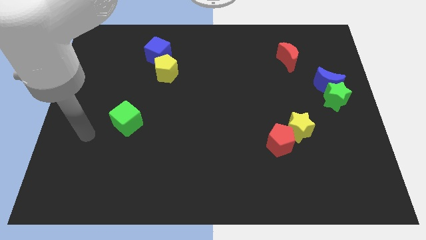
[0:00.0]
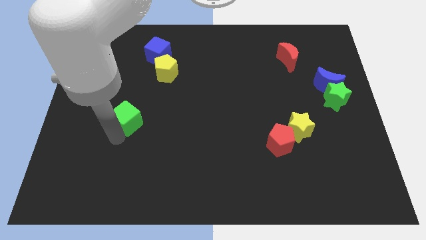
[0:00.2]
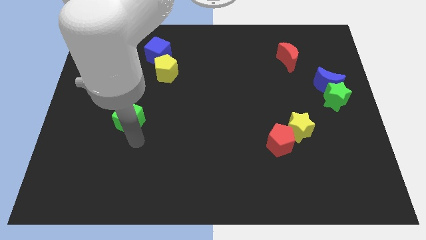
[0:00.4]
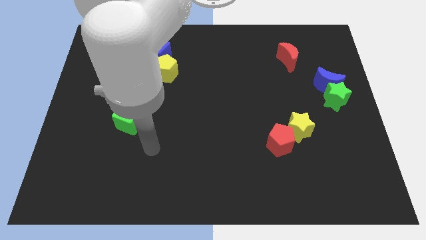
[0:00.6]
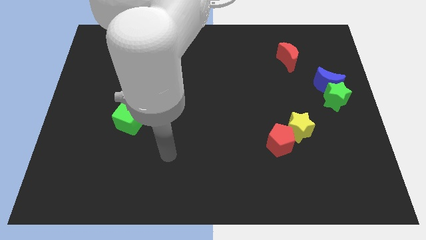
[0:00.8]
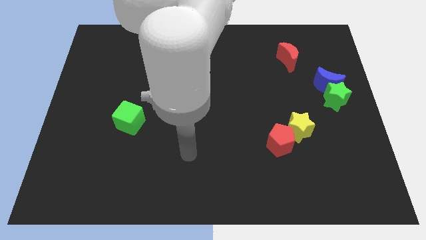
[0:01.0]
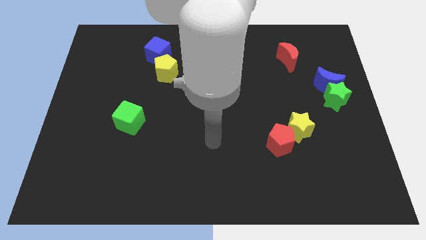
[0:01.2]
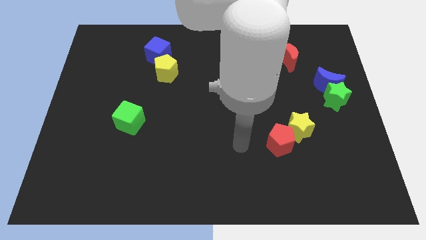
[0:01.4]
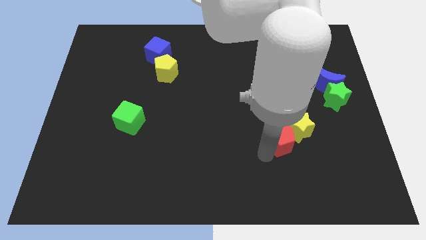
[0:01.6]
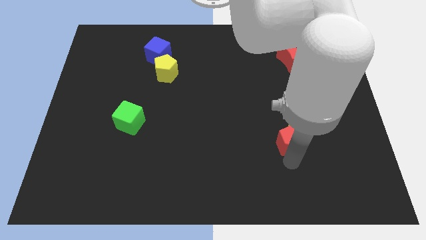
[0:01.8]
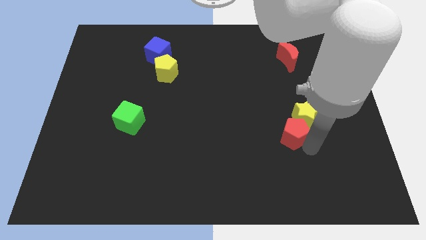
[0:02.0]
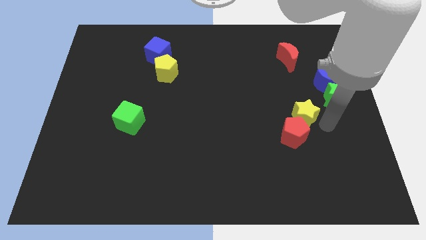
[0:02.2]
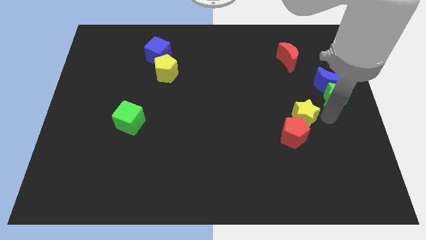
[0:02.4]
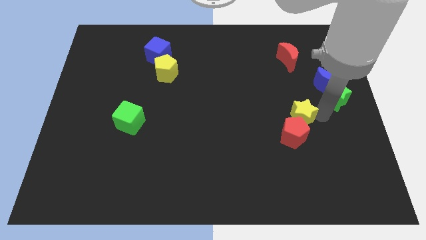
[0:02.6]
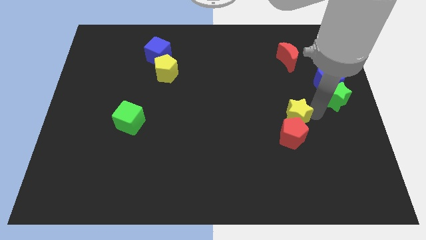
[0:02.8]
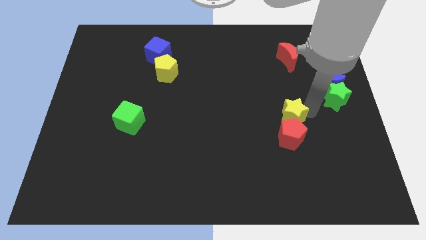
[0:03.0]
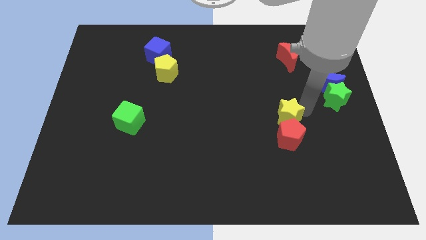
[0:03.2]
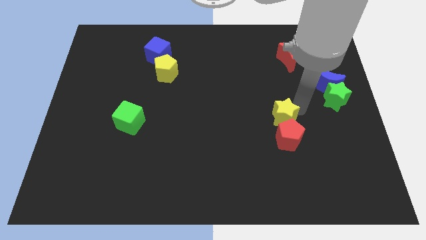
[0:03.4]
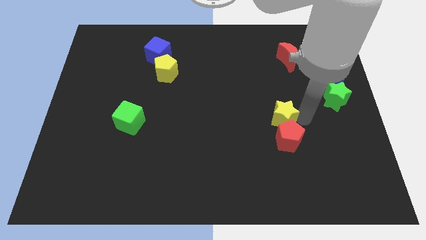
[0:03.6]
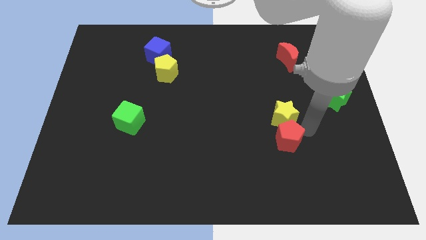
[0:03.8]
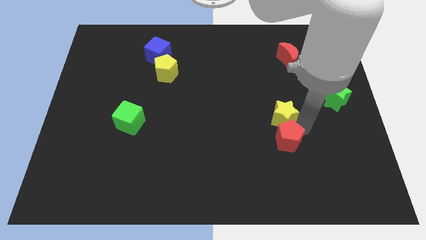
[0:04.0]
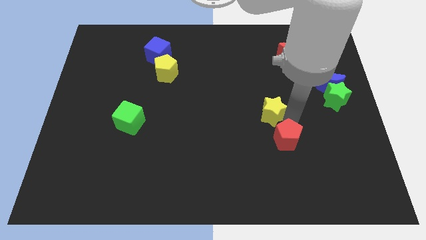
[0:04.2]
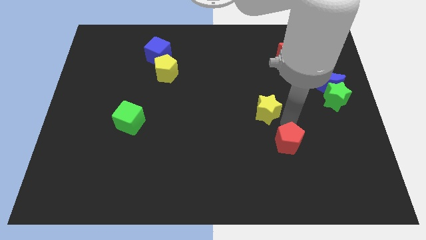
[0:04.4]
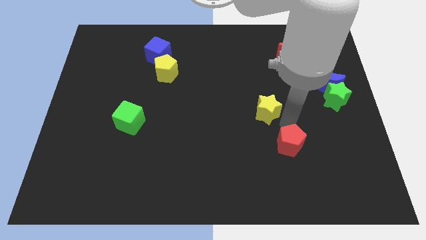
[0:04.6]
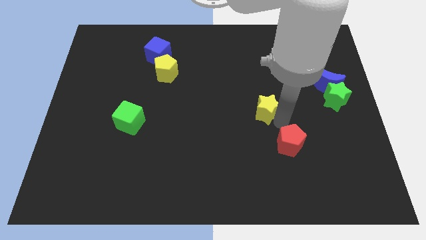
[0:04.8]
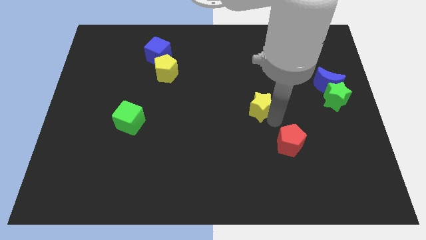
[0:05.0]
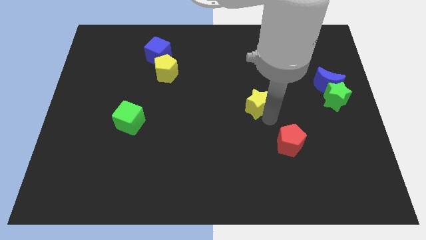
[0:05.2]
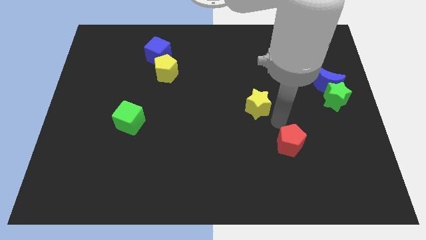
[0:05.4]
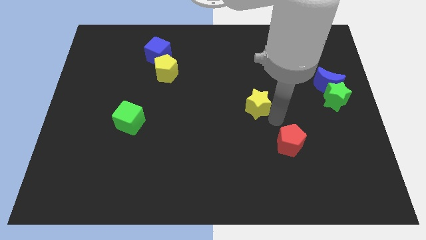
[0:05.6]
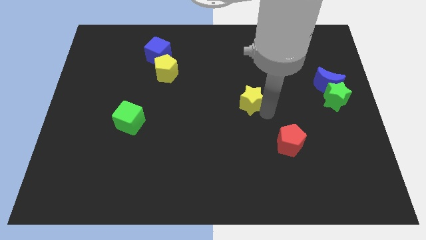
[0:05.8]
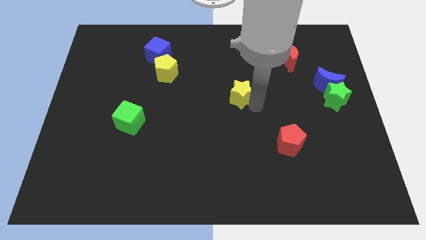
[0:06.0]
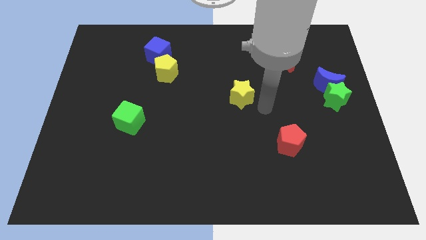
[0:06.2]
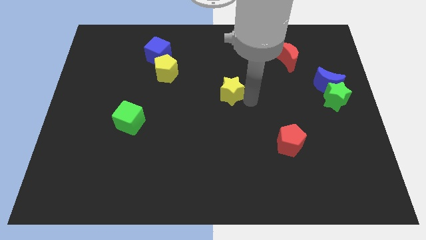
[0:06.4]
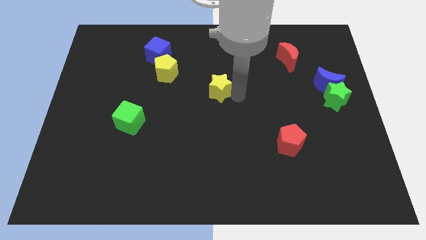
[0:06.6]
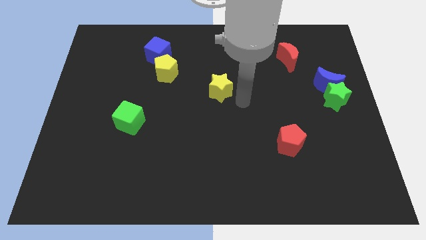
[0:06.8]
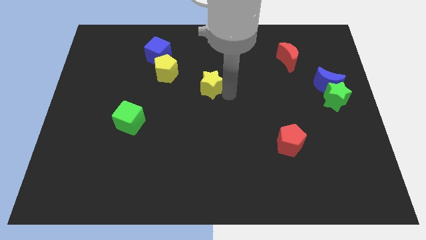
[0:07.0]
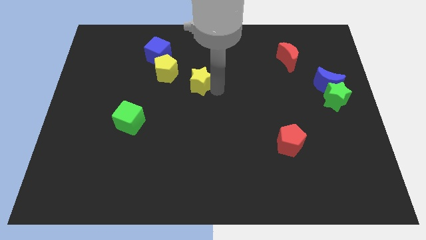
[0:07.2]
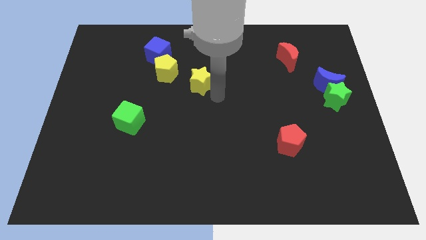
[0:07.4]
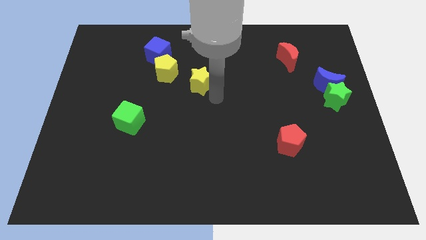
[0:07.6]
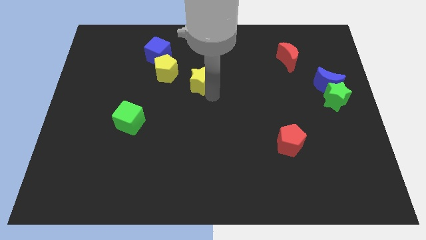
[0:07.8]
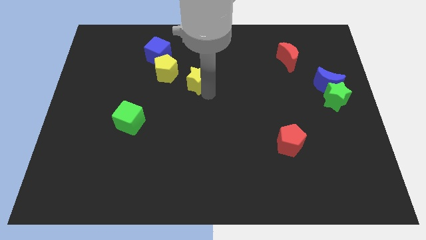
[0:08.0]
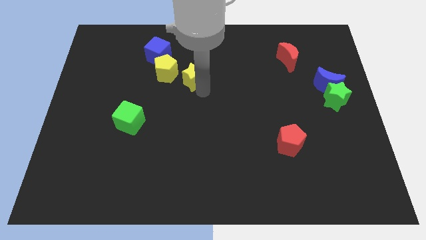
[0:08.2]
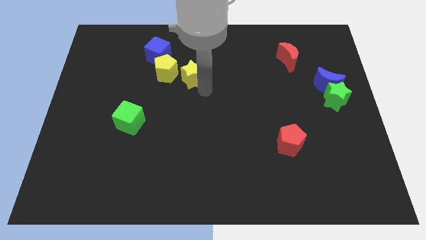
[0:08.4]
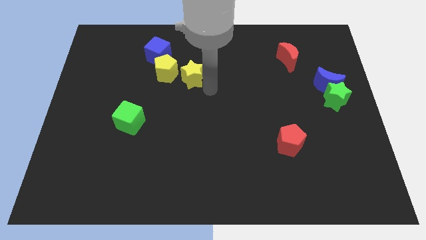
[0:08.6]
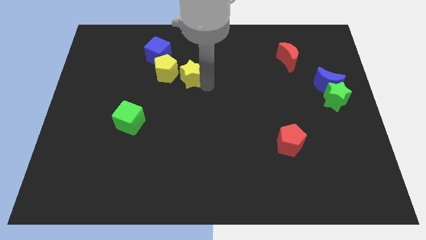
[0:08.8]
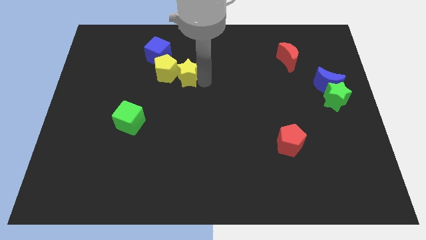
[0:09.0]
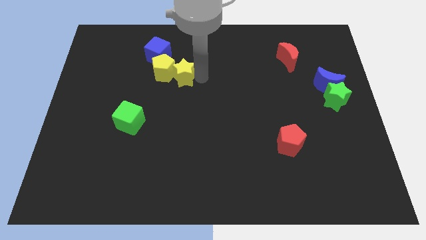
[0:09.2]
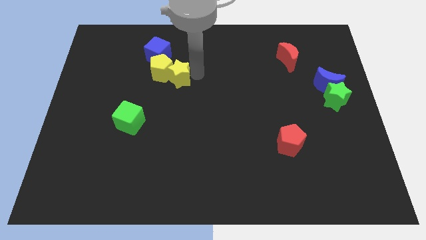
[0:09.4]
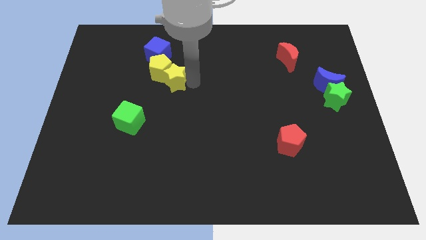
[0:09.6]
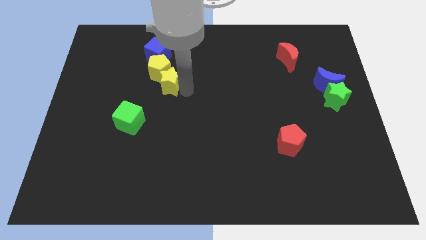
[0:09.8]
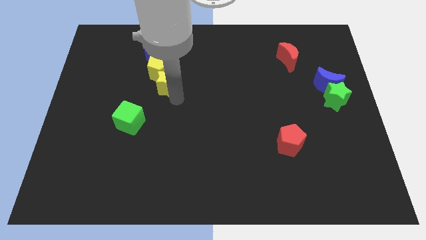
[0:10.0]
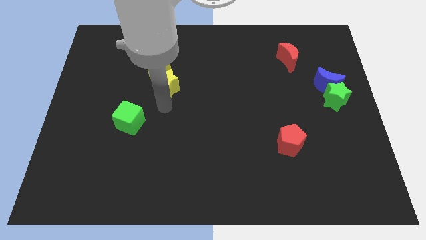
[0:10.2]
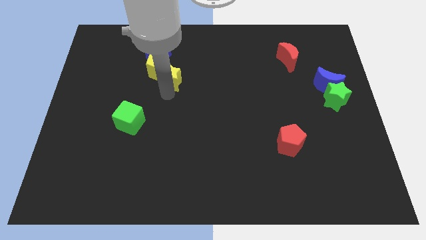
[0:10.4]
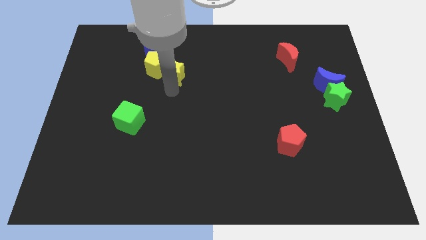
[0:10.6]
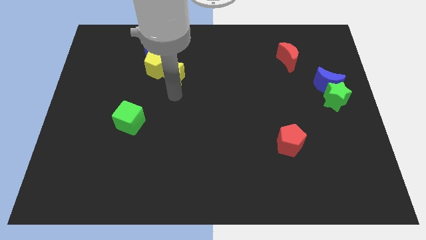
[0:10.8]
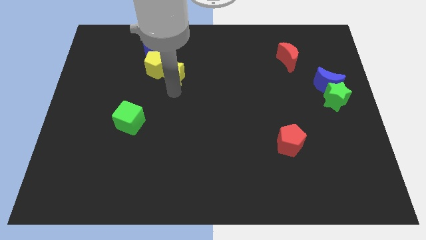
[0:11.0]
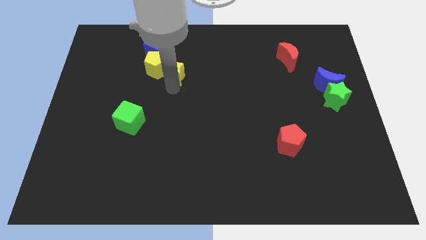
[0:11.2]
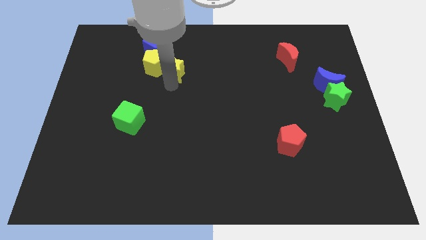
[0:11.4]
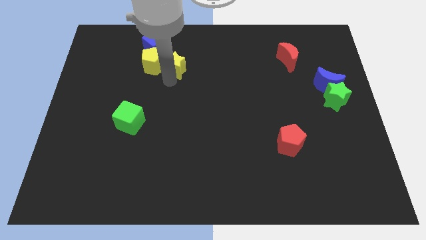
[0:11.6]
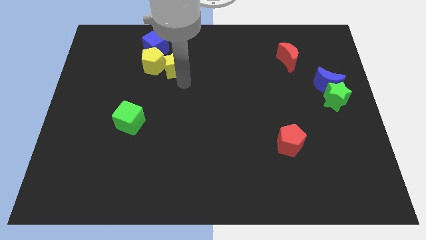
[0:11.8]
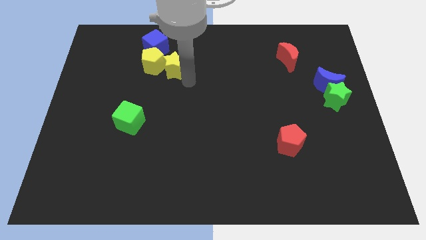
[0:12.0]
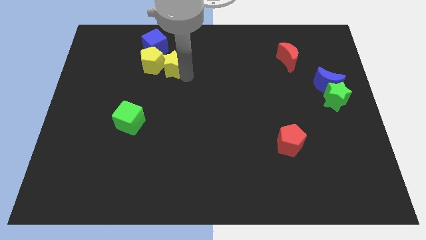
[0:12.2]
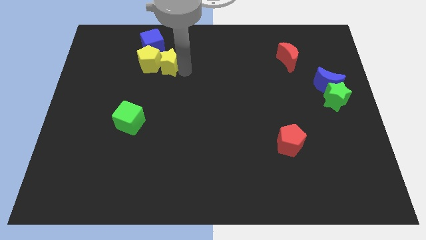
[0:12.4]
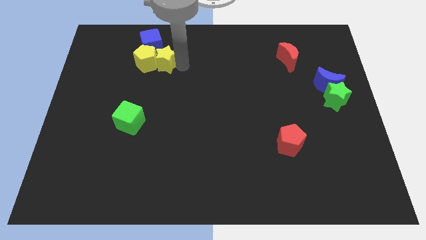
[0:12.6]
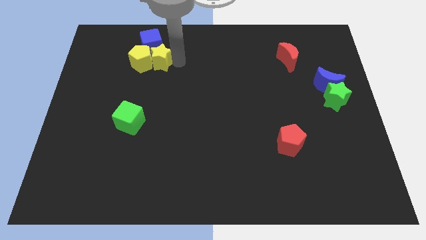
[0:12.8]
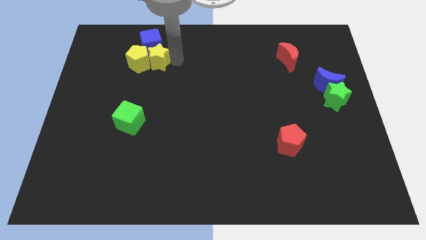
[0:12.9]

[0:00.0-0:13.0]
put the yellow star to the blue cube

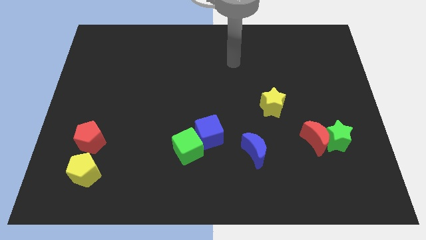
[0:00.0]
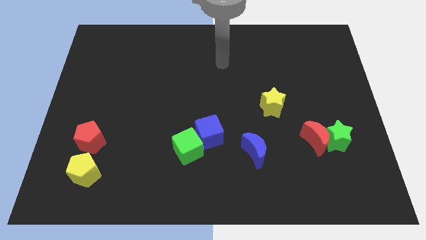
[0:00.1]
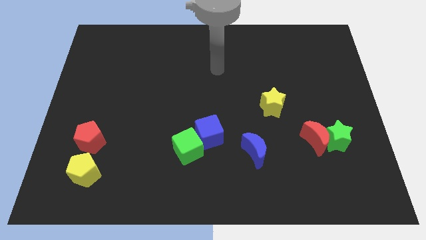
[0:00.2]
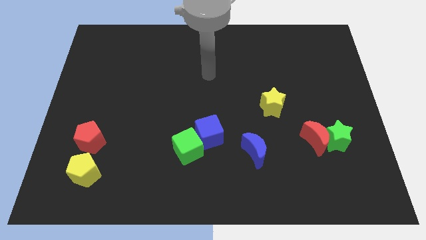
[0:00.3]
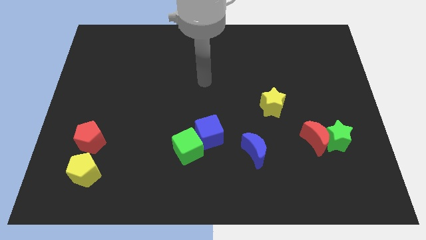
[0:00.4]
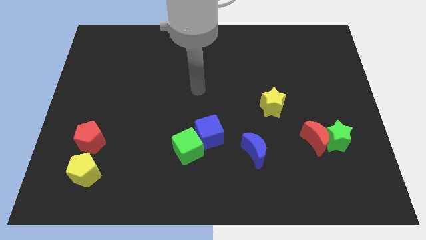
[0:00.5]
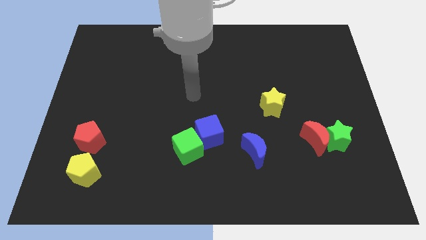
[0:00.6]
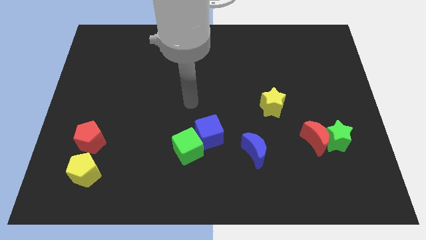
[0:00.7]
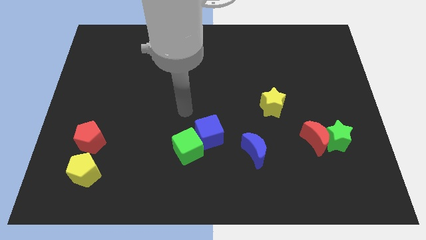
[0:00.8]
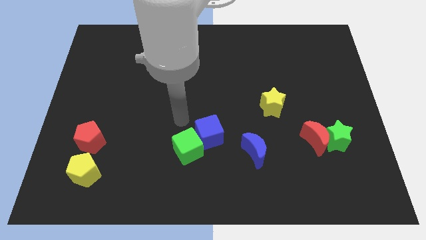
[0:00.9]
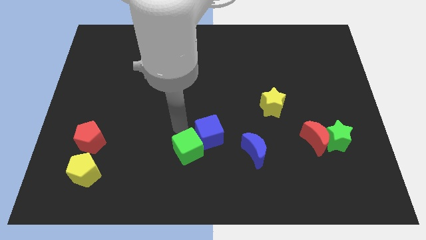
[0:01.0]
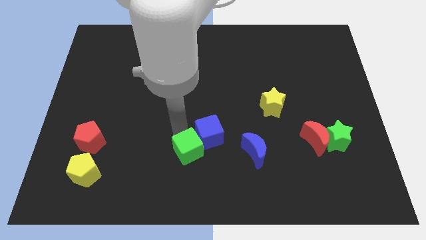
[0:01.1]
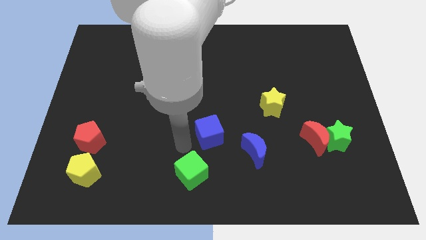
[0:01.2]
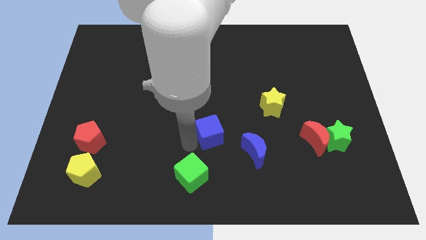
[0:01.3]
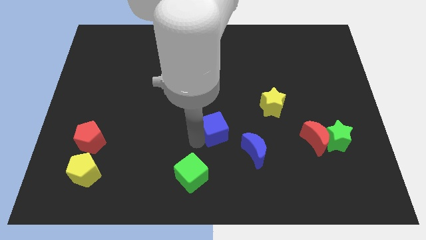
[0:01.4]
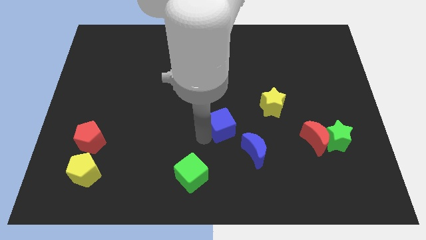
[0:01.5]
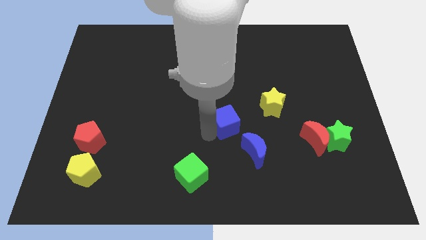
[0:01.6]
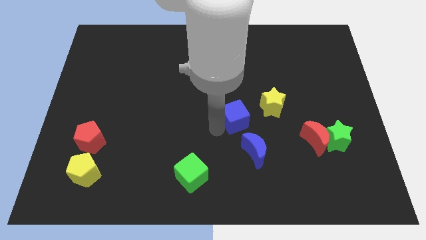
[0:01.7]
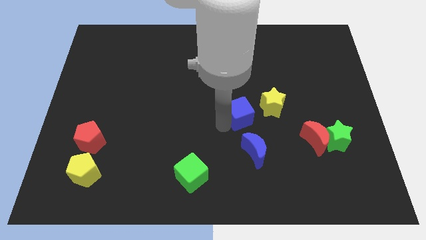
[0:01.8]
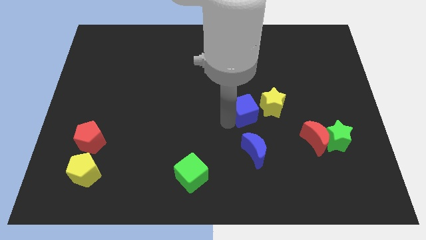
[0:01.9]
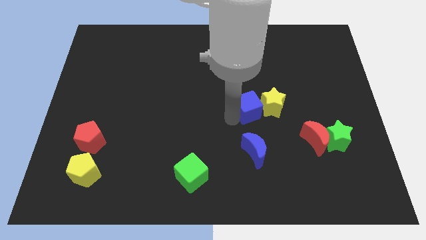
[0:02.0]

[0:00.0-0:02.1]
put the blue cube next to the yellow star
